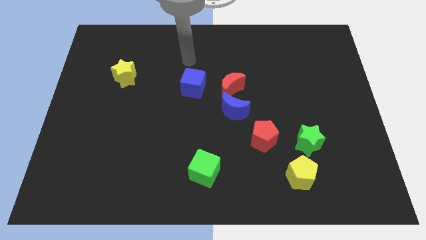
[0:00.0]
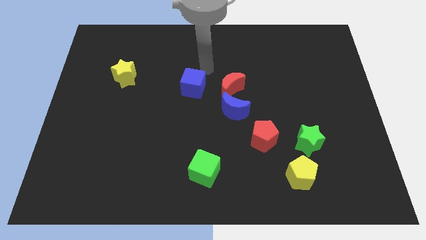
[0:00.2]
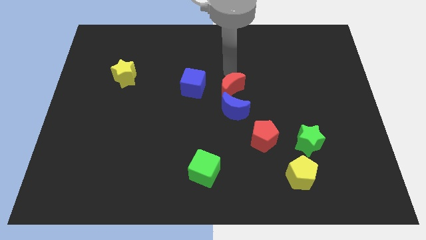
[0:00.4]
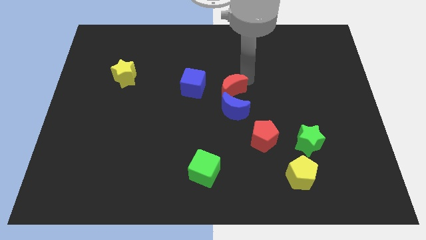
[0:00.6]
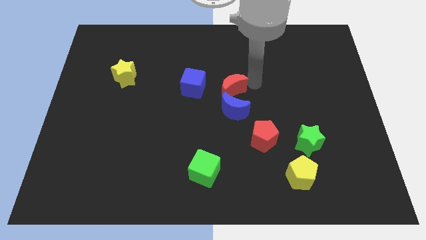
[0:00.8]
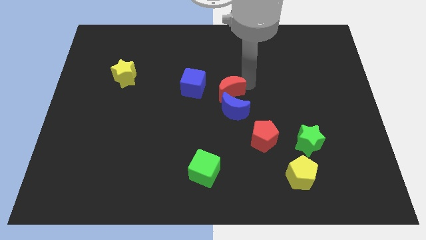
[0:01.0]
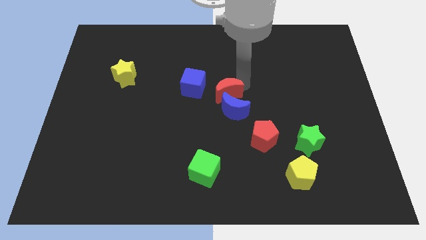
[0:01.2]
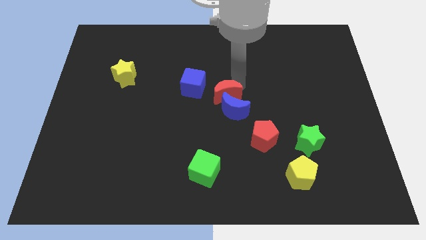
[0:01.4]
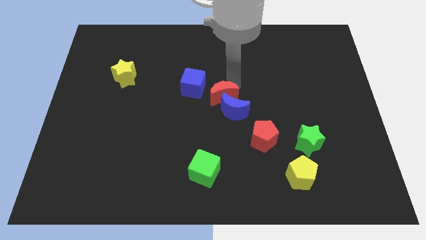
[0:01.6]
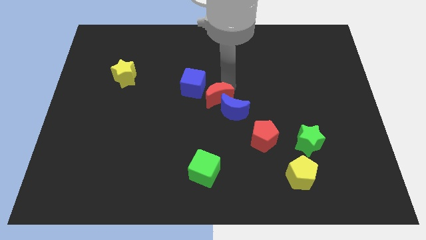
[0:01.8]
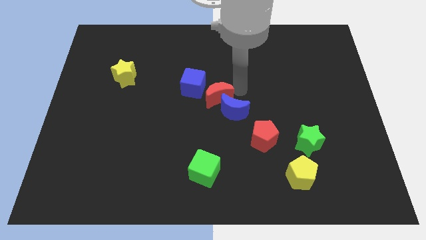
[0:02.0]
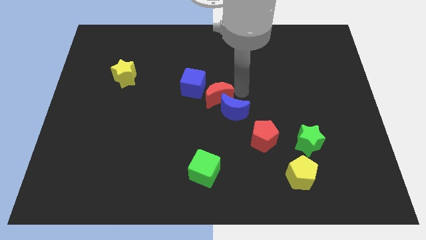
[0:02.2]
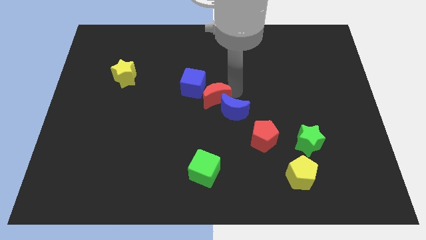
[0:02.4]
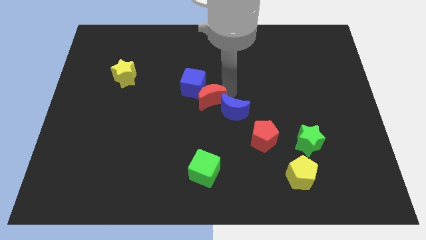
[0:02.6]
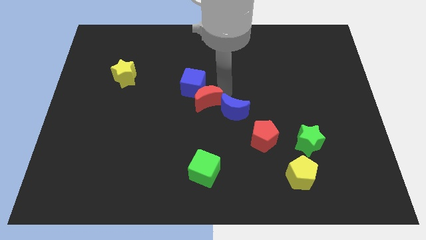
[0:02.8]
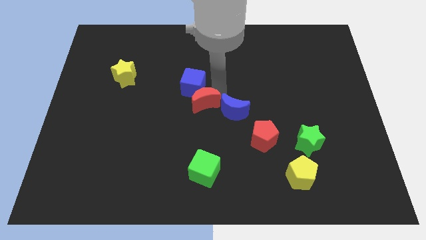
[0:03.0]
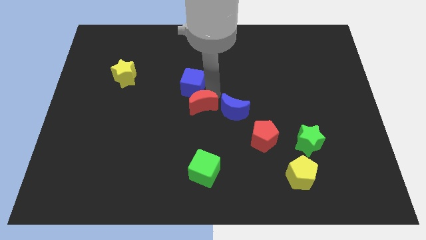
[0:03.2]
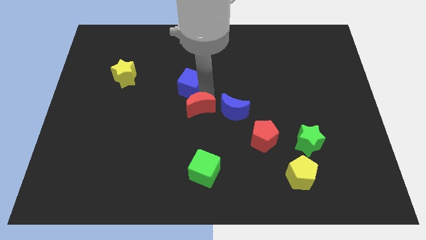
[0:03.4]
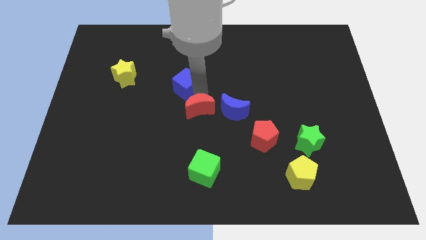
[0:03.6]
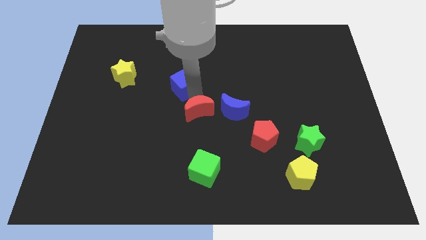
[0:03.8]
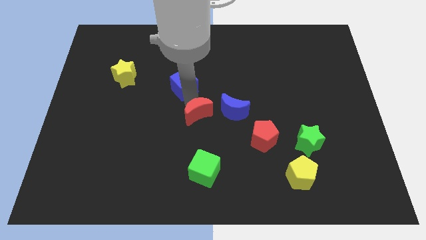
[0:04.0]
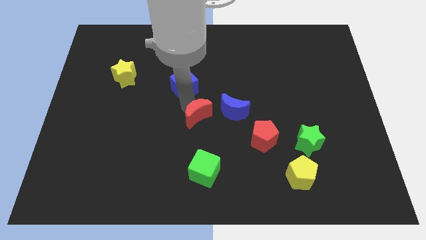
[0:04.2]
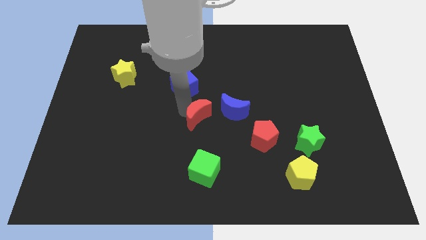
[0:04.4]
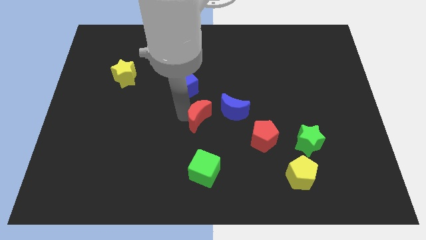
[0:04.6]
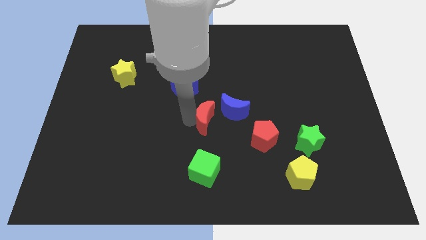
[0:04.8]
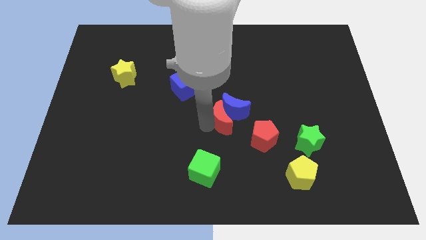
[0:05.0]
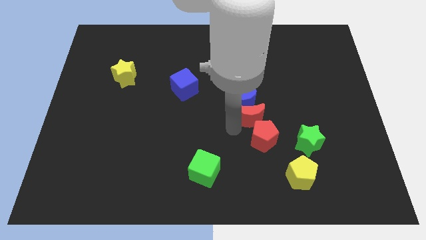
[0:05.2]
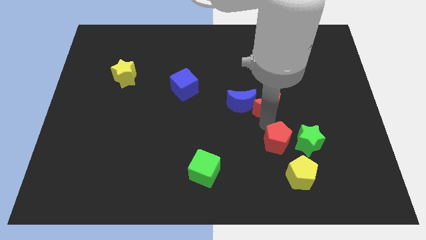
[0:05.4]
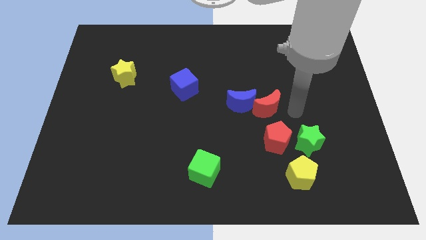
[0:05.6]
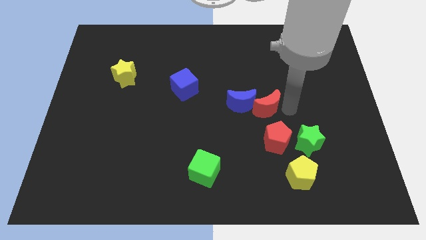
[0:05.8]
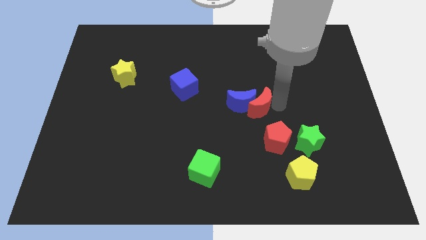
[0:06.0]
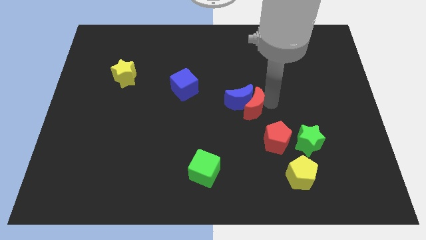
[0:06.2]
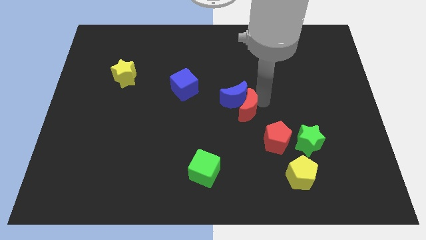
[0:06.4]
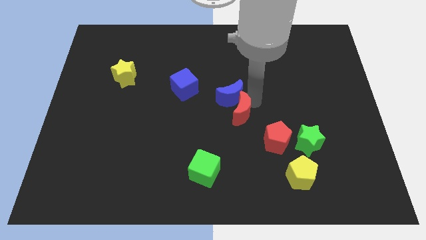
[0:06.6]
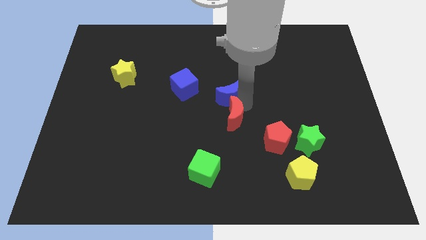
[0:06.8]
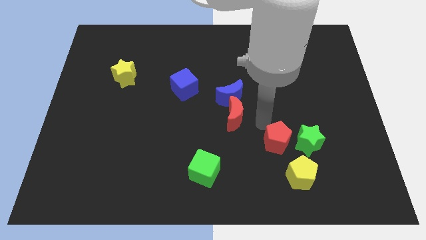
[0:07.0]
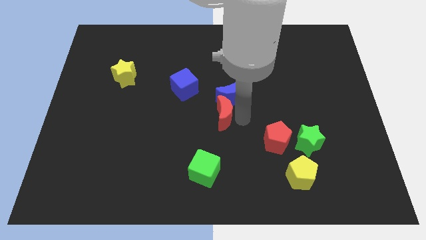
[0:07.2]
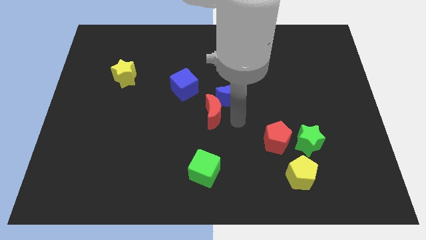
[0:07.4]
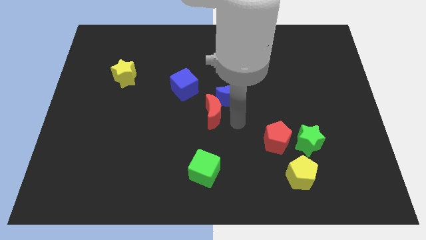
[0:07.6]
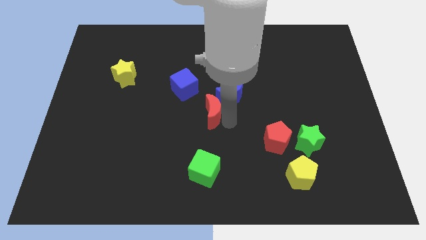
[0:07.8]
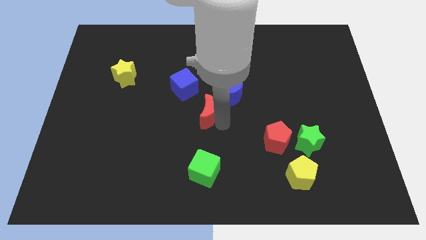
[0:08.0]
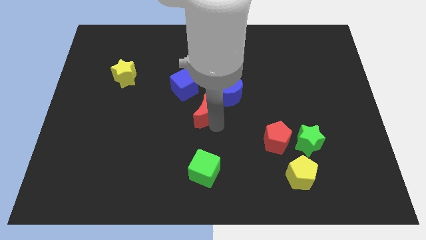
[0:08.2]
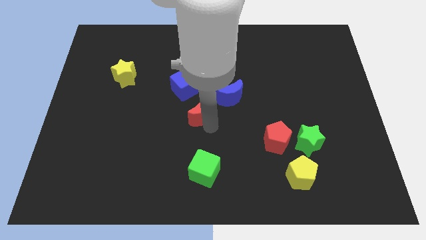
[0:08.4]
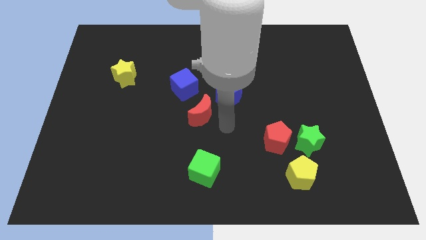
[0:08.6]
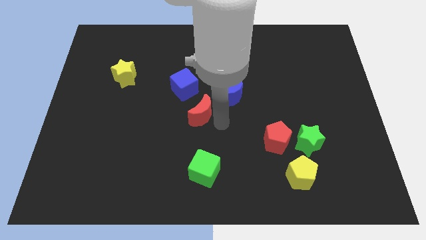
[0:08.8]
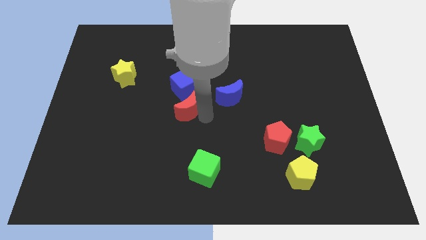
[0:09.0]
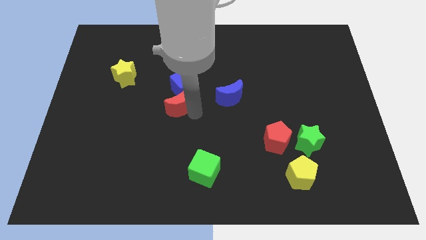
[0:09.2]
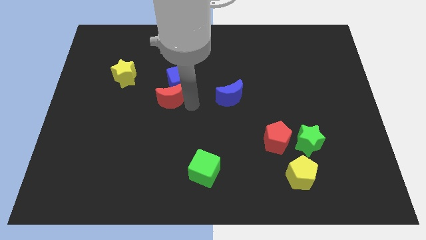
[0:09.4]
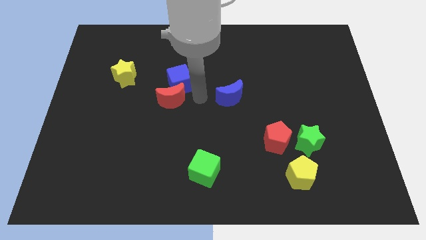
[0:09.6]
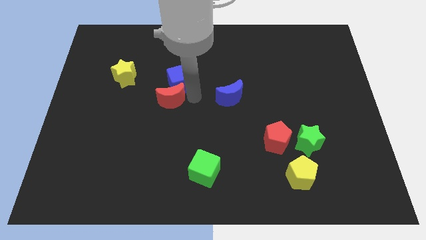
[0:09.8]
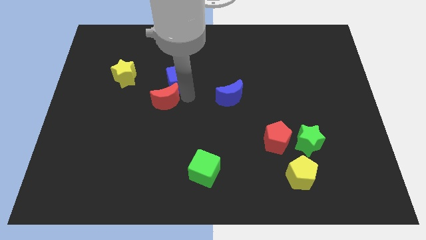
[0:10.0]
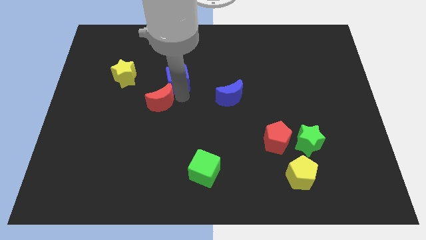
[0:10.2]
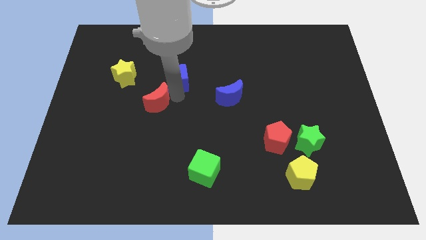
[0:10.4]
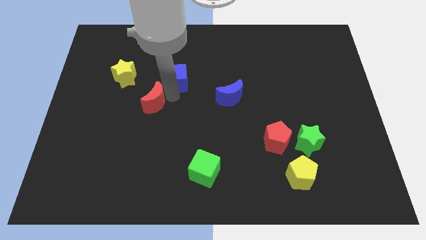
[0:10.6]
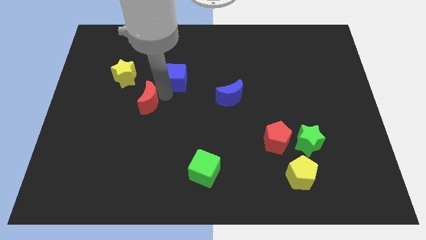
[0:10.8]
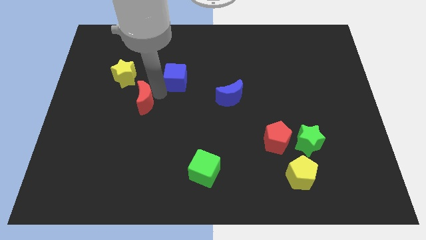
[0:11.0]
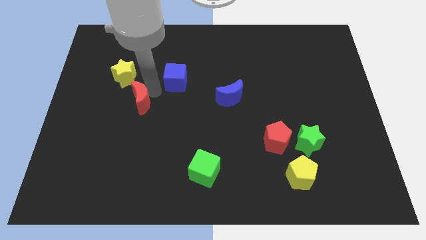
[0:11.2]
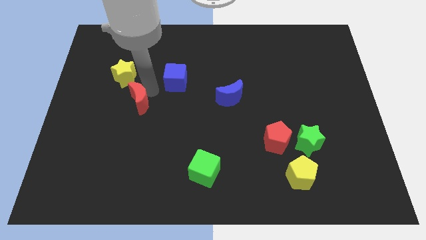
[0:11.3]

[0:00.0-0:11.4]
slide the red moon to the bottom side of the yellow star

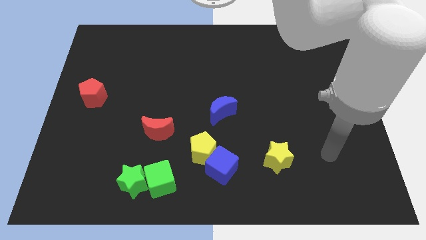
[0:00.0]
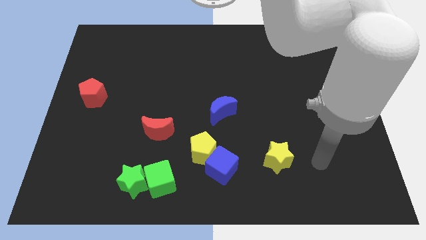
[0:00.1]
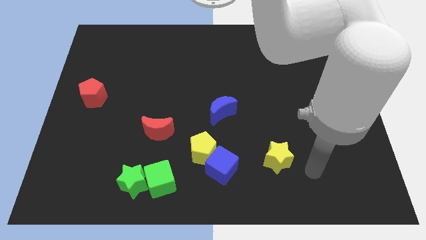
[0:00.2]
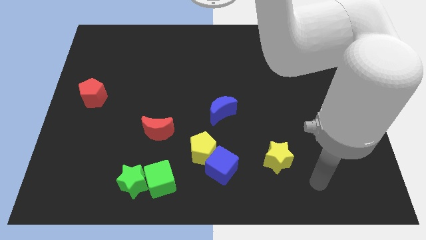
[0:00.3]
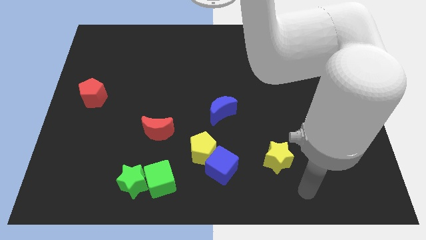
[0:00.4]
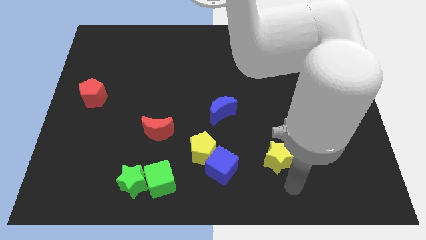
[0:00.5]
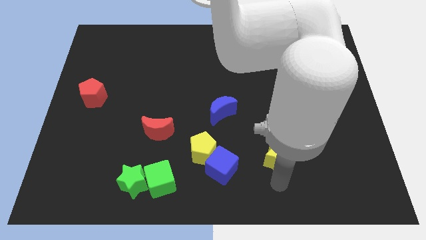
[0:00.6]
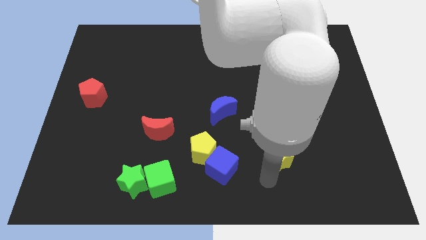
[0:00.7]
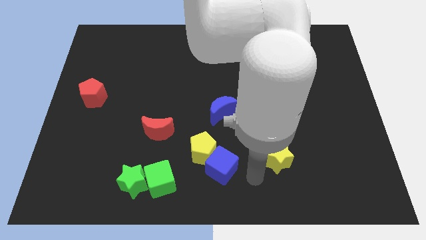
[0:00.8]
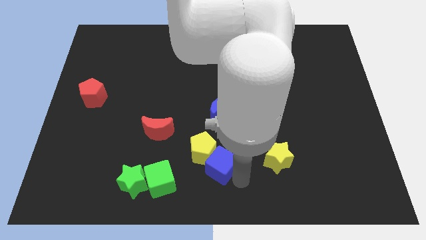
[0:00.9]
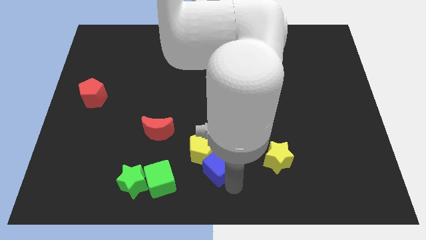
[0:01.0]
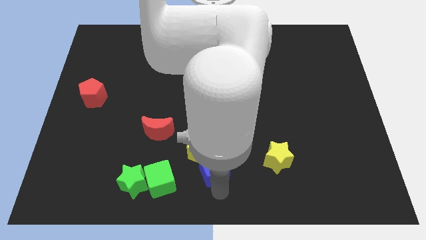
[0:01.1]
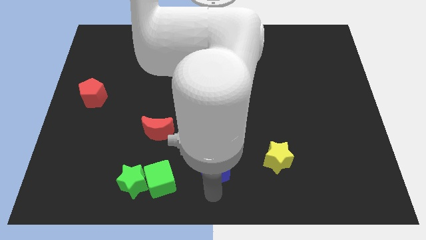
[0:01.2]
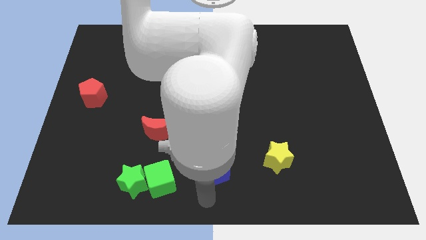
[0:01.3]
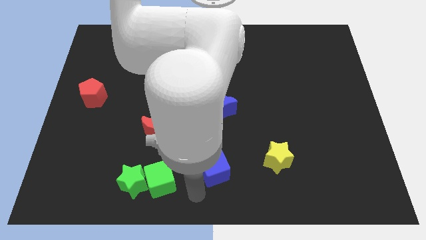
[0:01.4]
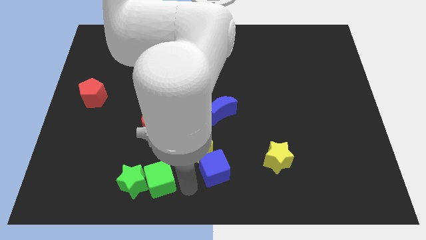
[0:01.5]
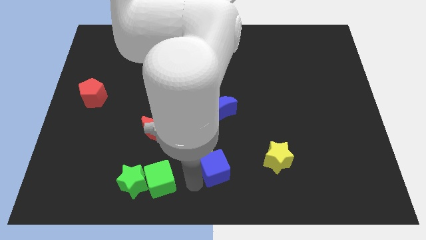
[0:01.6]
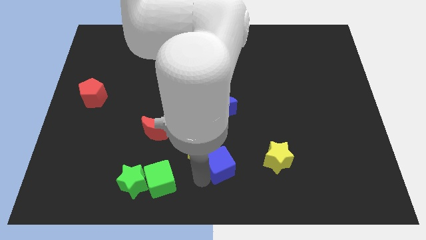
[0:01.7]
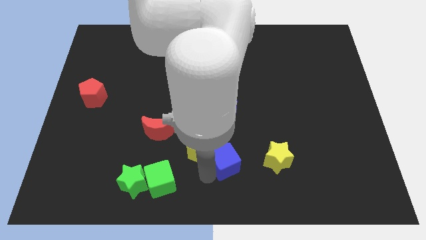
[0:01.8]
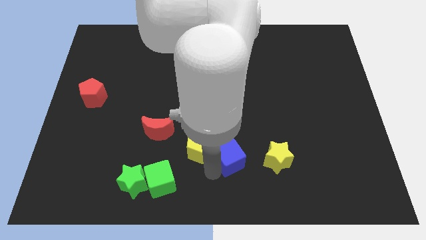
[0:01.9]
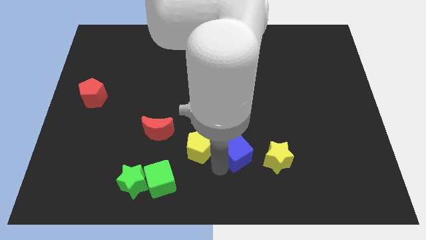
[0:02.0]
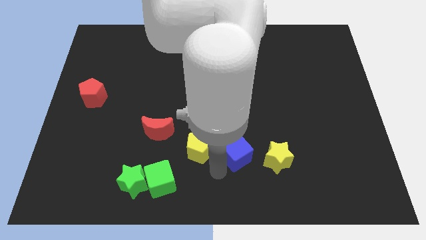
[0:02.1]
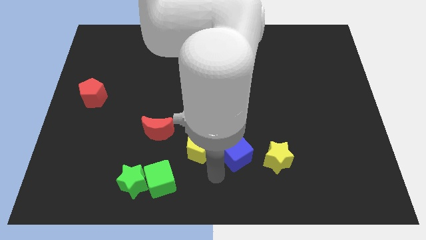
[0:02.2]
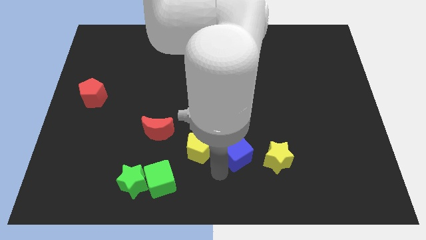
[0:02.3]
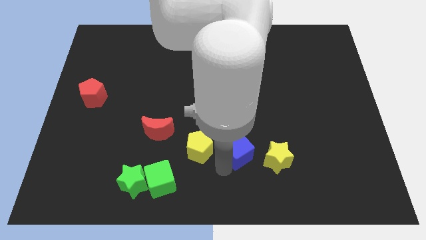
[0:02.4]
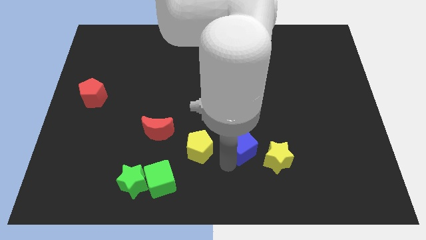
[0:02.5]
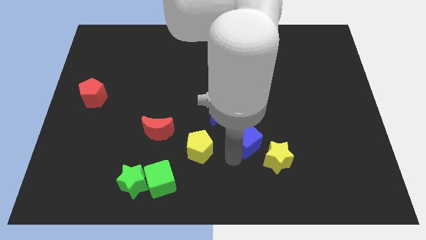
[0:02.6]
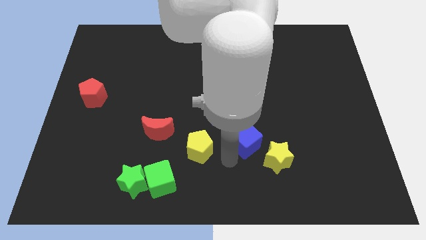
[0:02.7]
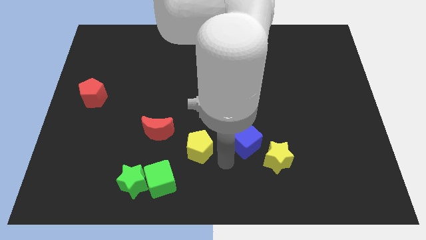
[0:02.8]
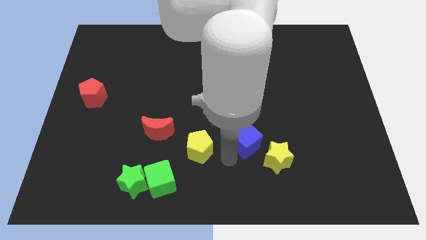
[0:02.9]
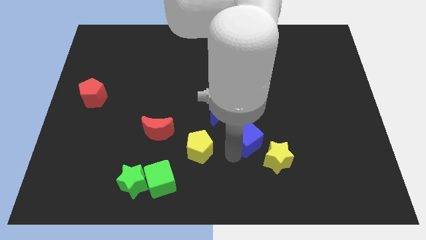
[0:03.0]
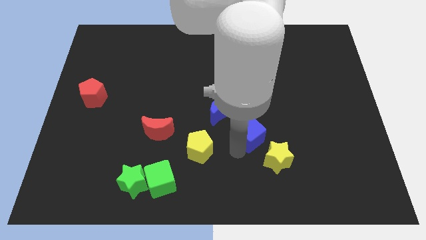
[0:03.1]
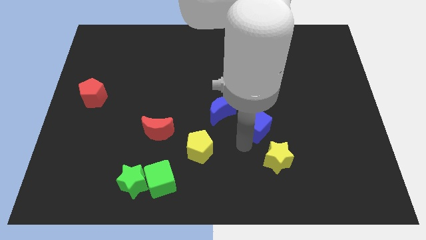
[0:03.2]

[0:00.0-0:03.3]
push the blue cube to the right of the blue moon
